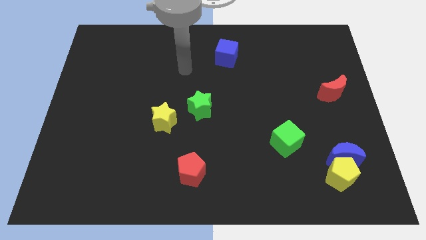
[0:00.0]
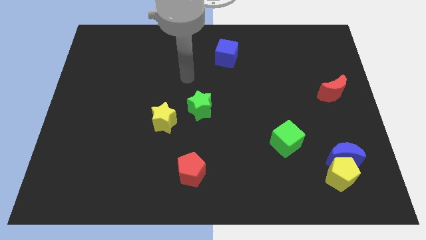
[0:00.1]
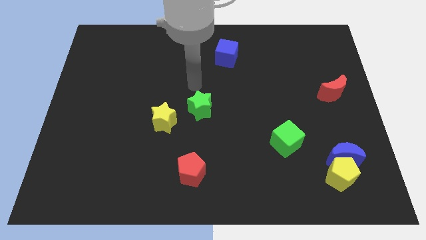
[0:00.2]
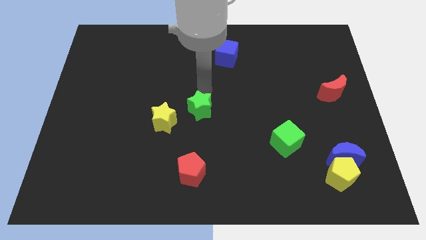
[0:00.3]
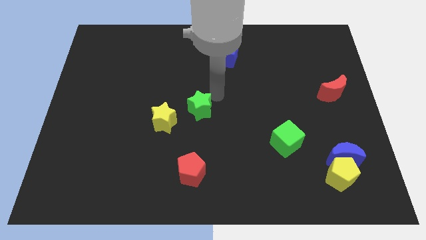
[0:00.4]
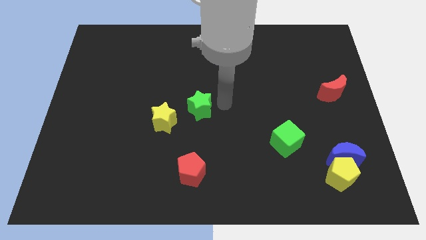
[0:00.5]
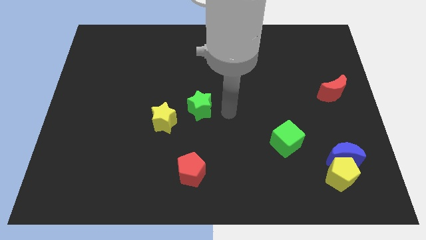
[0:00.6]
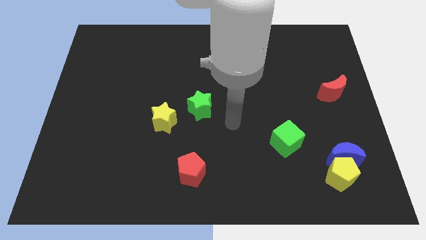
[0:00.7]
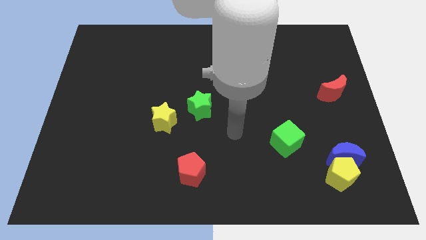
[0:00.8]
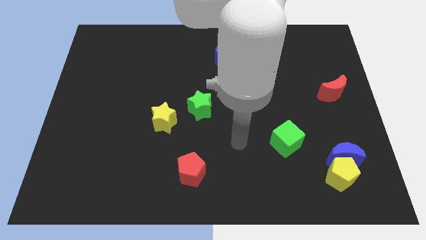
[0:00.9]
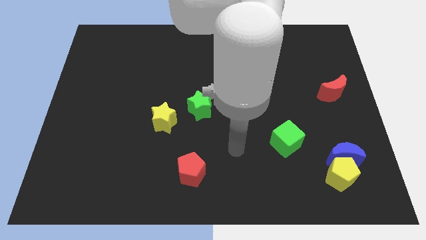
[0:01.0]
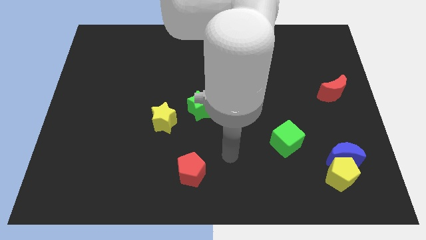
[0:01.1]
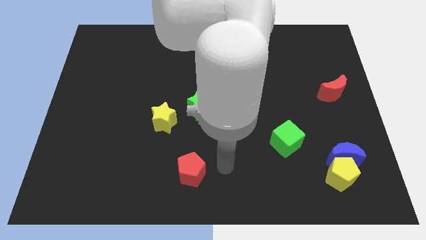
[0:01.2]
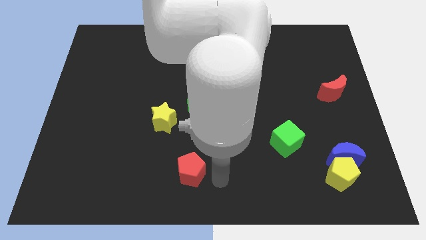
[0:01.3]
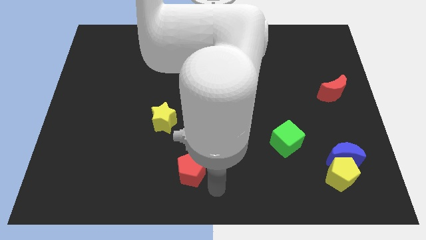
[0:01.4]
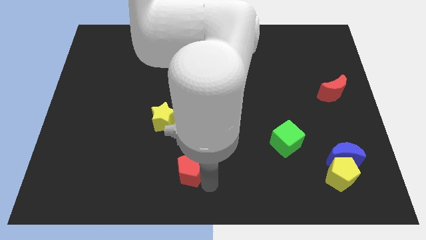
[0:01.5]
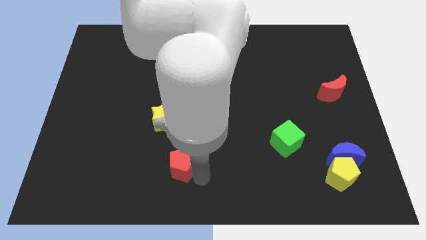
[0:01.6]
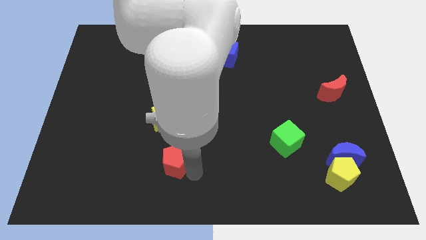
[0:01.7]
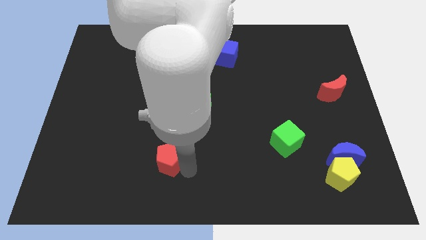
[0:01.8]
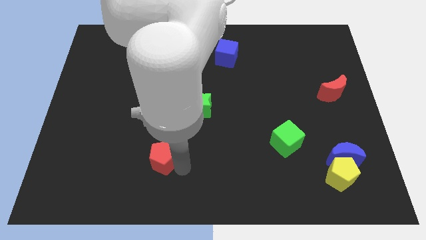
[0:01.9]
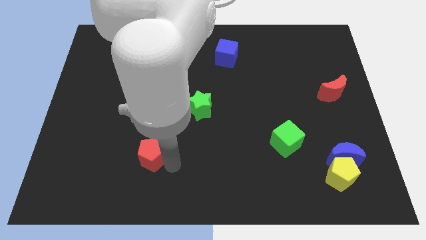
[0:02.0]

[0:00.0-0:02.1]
slide the red pentagon up and then left a little

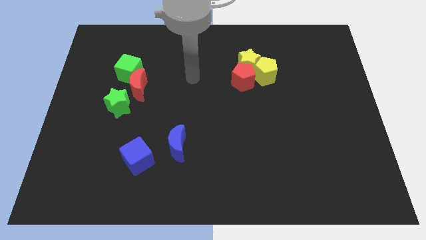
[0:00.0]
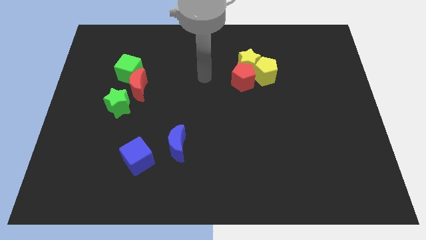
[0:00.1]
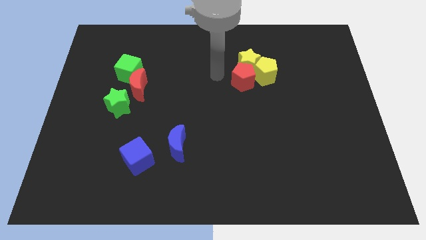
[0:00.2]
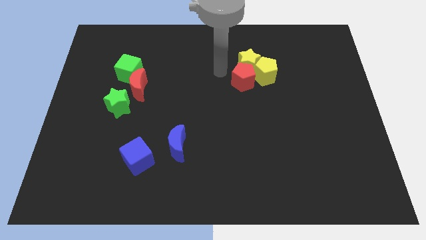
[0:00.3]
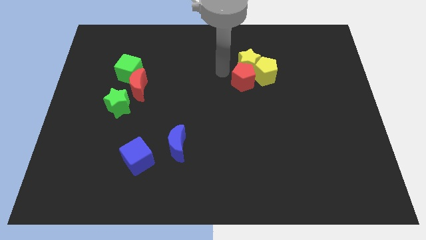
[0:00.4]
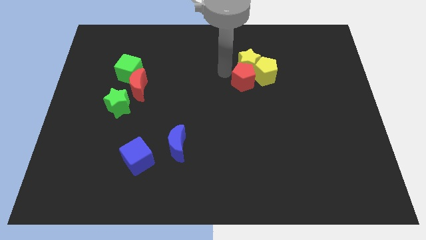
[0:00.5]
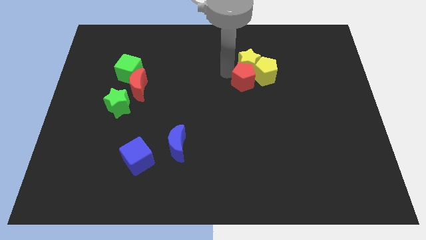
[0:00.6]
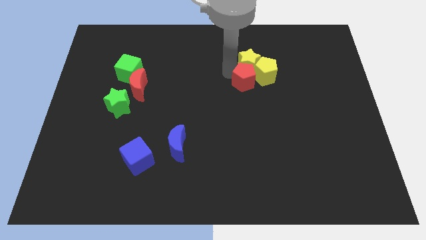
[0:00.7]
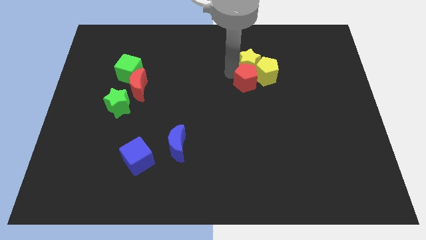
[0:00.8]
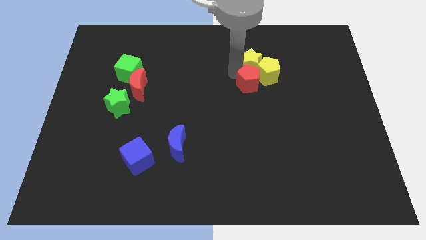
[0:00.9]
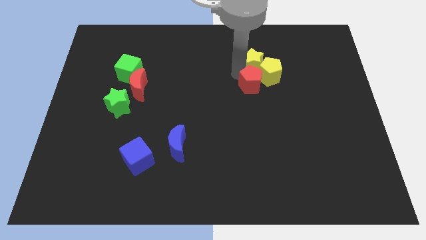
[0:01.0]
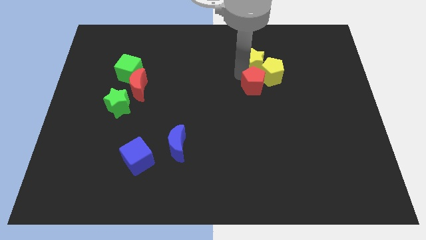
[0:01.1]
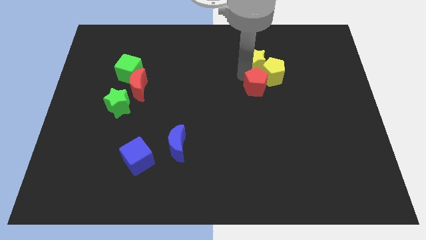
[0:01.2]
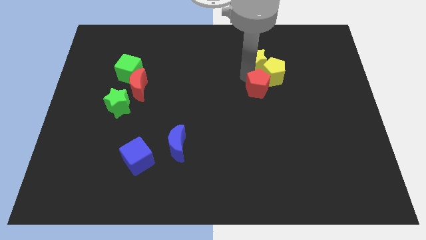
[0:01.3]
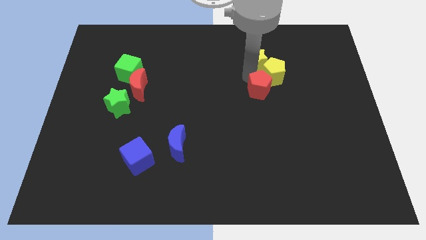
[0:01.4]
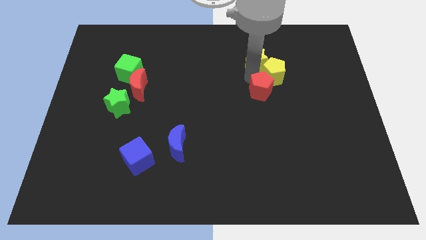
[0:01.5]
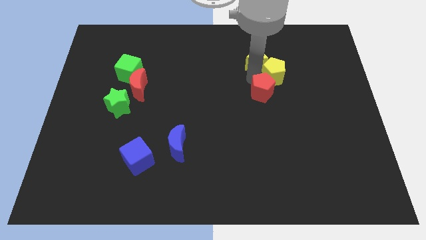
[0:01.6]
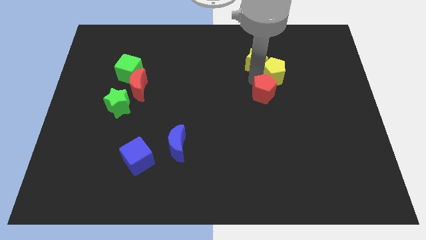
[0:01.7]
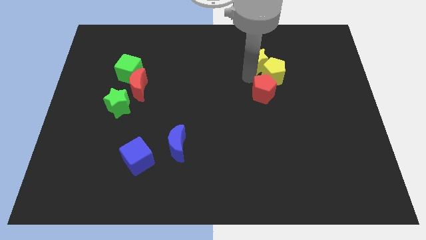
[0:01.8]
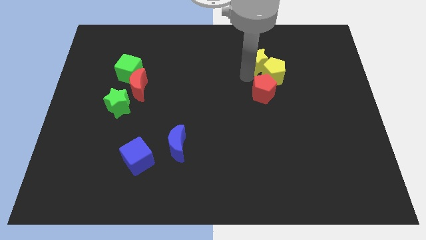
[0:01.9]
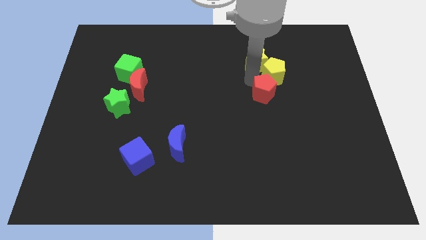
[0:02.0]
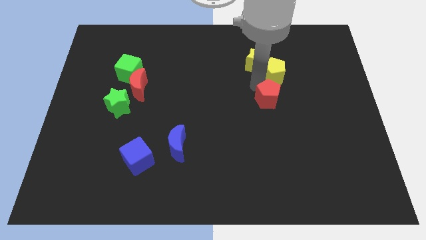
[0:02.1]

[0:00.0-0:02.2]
slightly slide the red pentagon downwards and right diagonally

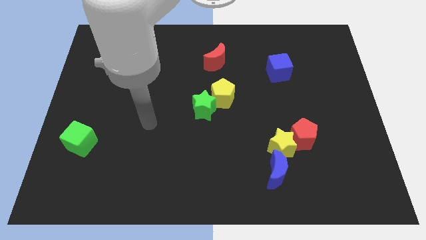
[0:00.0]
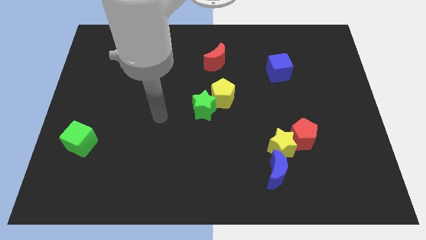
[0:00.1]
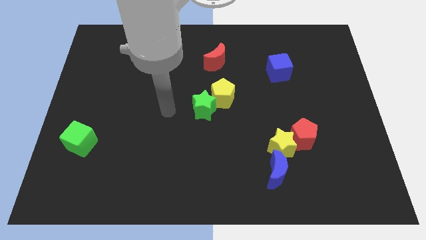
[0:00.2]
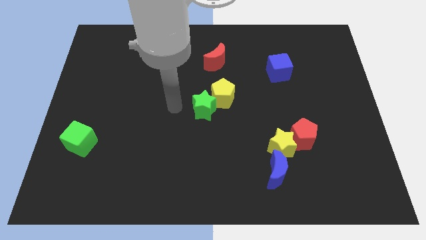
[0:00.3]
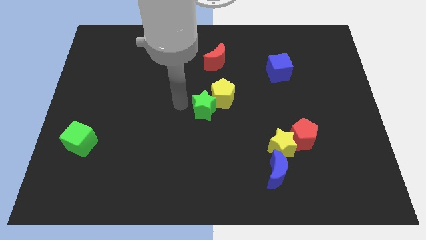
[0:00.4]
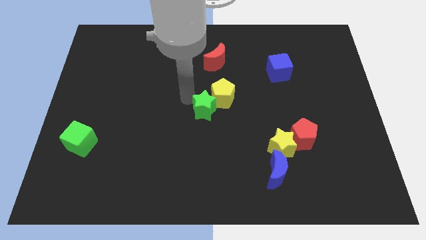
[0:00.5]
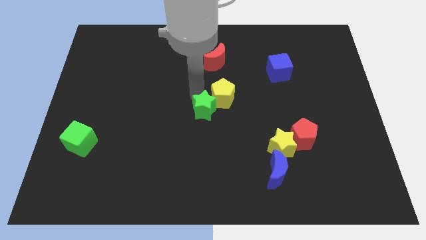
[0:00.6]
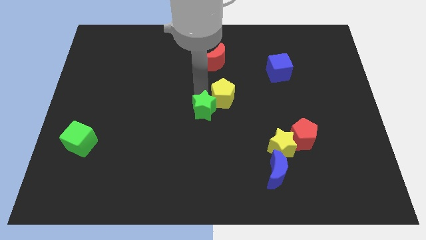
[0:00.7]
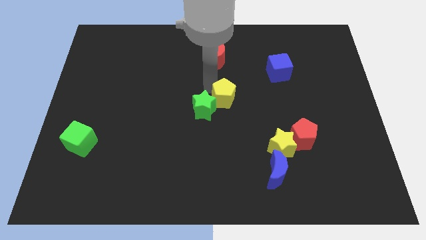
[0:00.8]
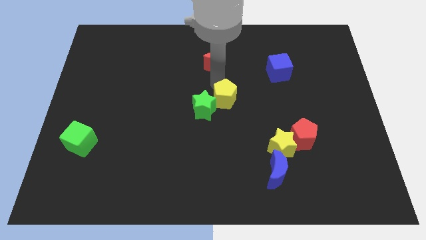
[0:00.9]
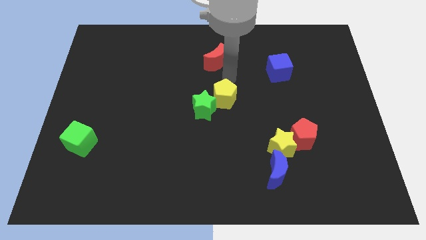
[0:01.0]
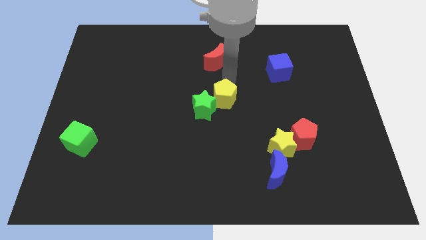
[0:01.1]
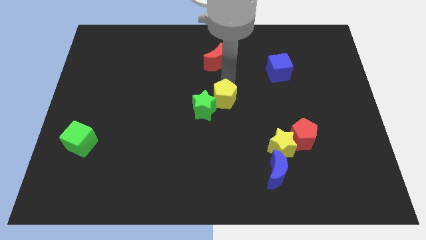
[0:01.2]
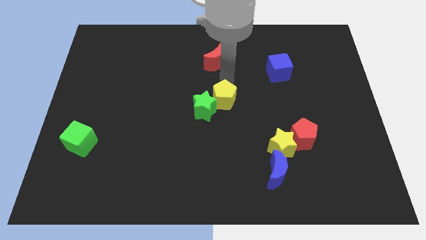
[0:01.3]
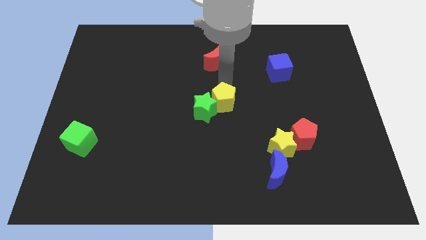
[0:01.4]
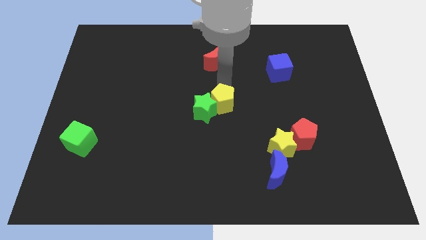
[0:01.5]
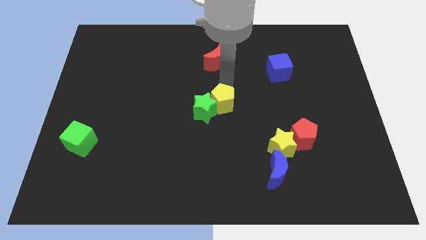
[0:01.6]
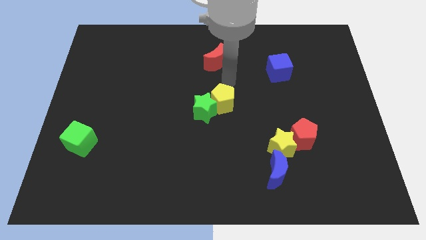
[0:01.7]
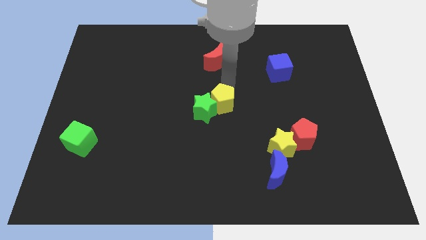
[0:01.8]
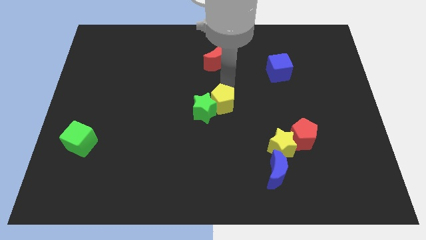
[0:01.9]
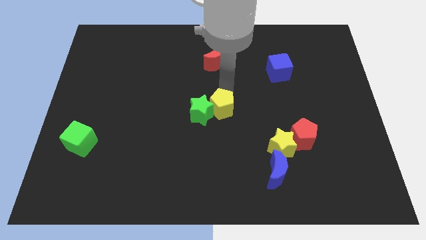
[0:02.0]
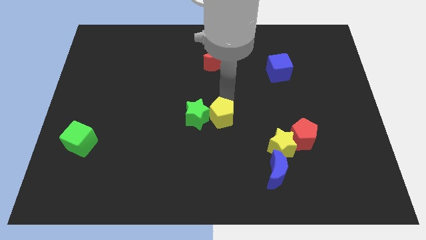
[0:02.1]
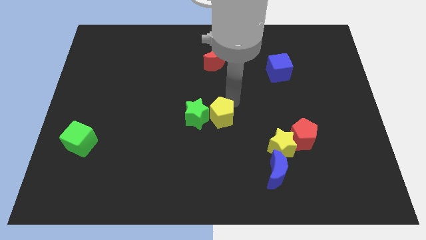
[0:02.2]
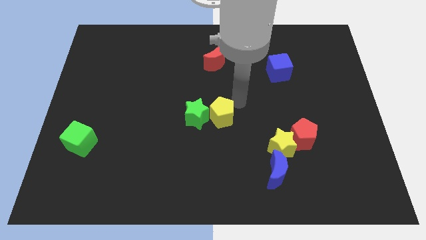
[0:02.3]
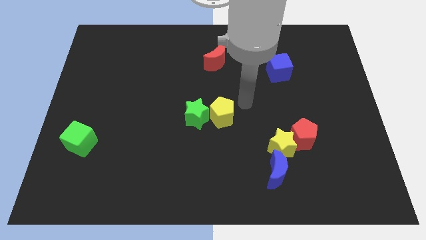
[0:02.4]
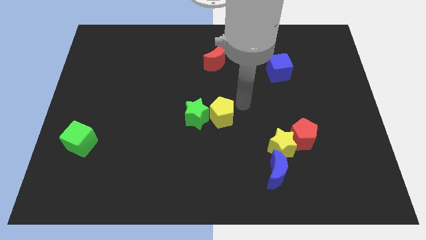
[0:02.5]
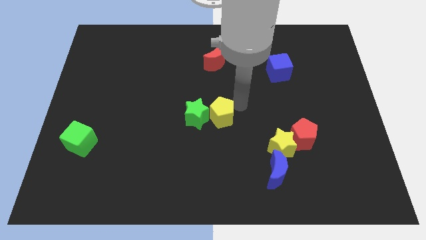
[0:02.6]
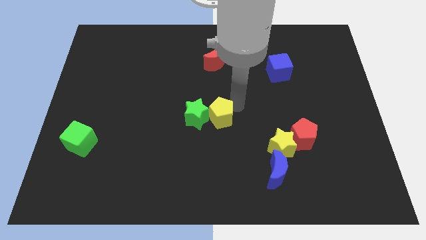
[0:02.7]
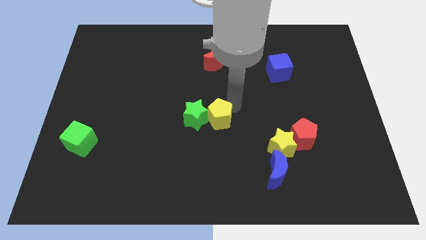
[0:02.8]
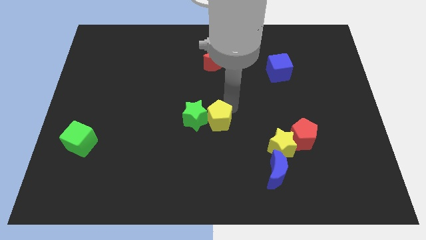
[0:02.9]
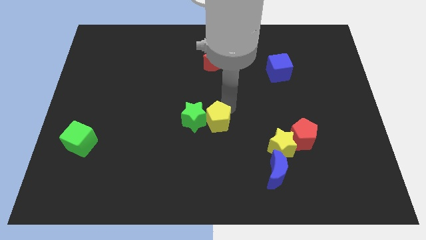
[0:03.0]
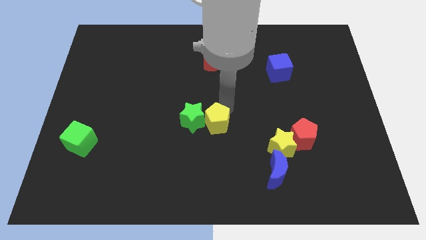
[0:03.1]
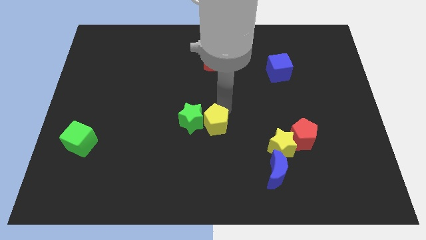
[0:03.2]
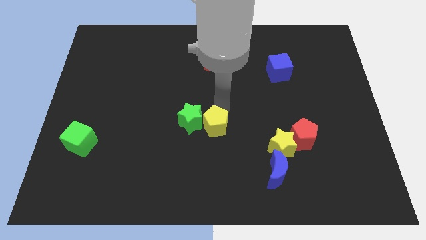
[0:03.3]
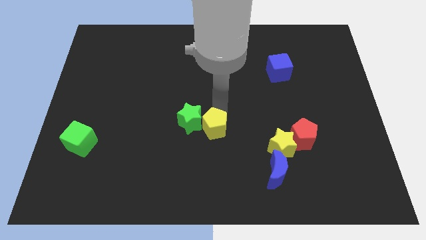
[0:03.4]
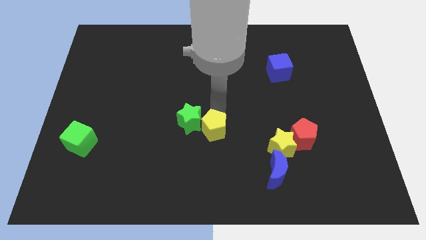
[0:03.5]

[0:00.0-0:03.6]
move the yellow pentagon a little bit down and then to the left

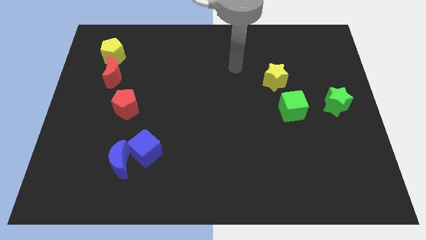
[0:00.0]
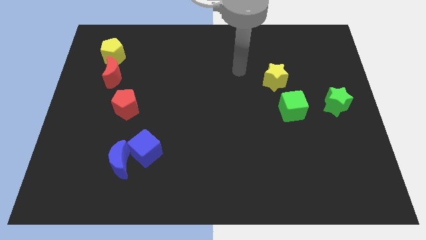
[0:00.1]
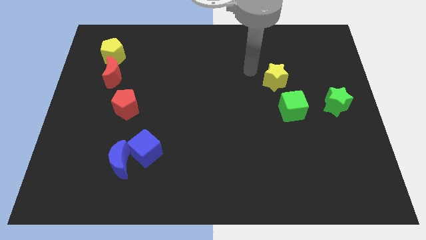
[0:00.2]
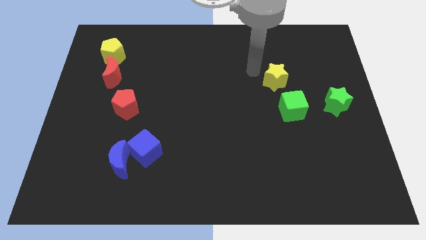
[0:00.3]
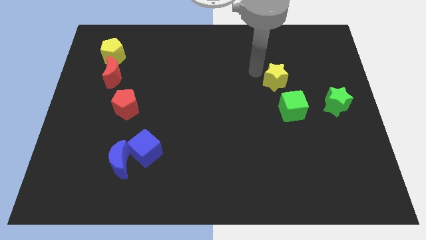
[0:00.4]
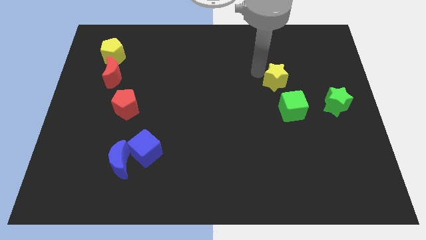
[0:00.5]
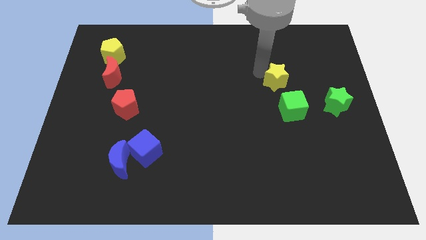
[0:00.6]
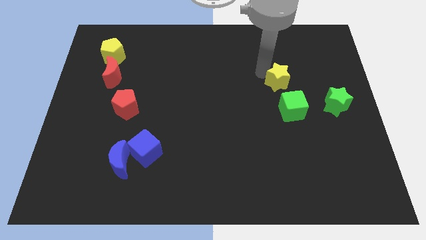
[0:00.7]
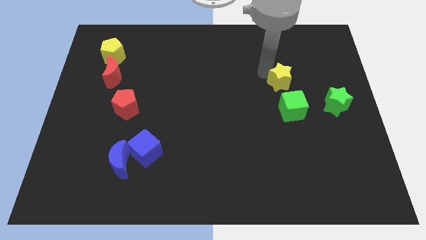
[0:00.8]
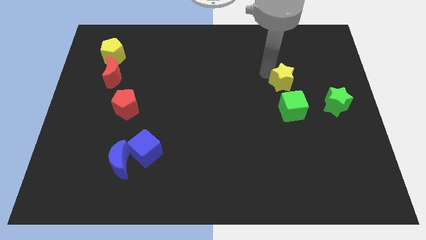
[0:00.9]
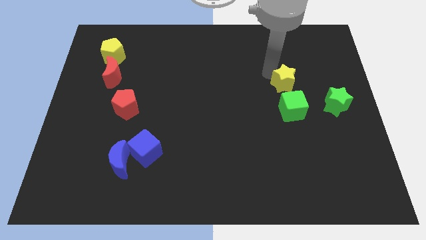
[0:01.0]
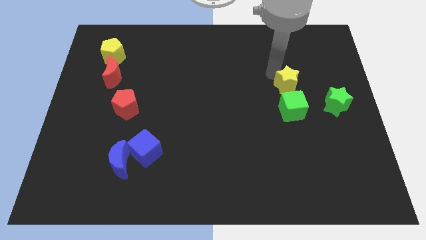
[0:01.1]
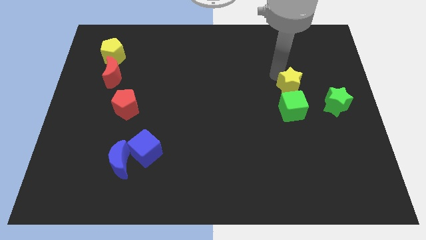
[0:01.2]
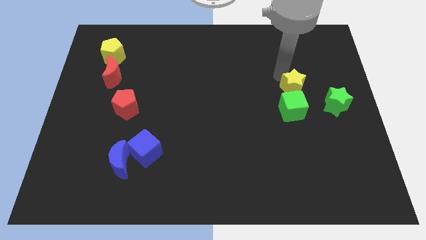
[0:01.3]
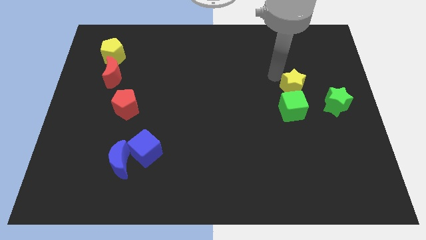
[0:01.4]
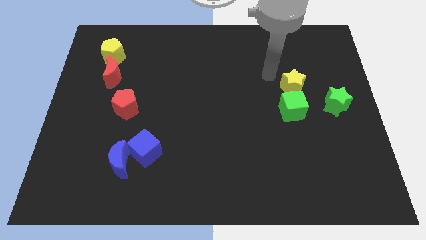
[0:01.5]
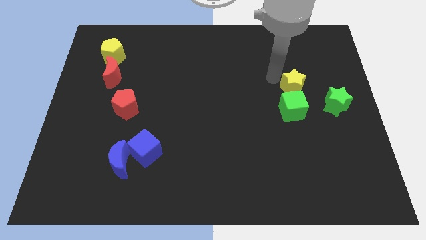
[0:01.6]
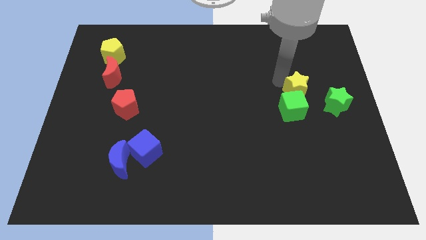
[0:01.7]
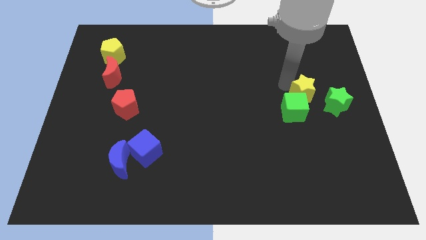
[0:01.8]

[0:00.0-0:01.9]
slide the yellow star down and right a little
